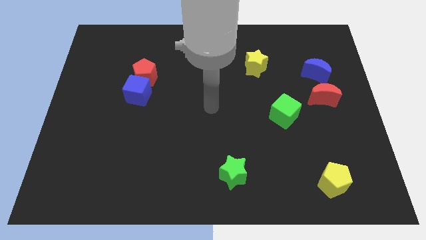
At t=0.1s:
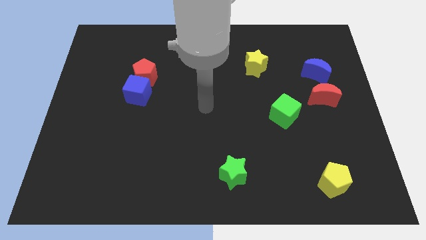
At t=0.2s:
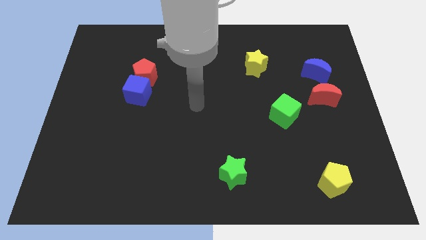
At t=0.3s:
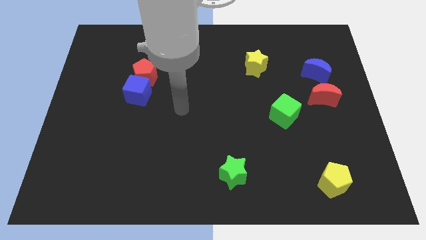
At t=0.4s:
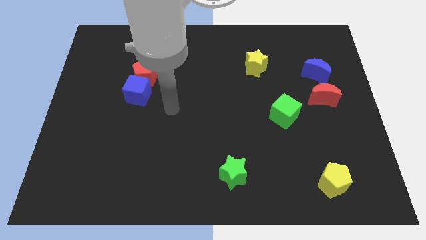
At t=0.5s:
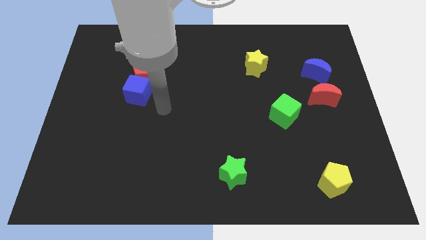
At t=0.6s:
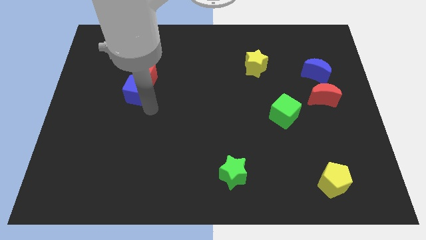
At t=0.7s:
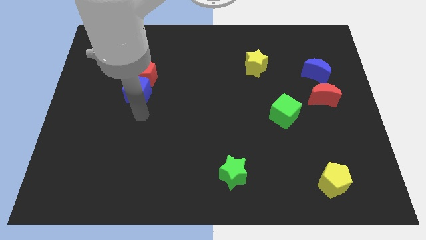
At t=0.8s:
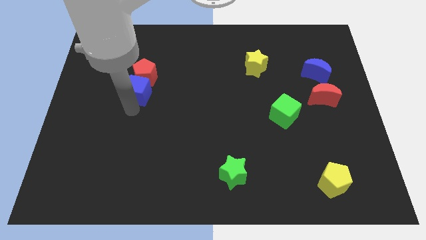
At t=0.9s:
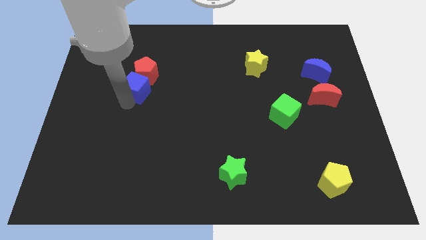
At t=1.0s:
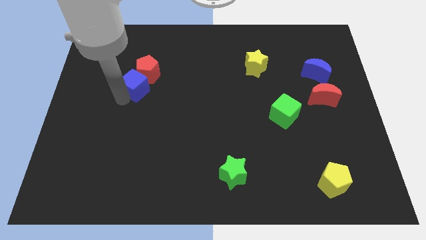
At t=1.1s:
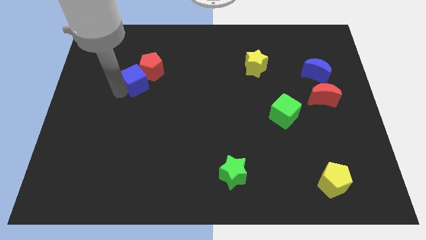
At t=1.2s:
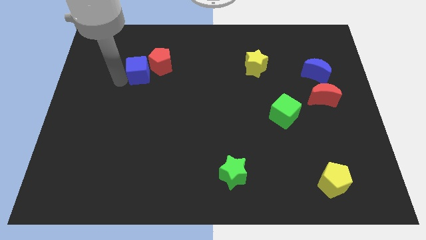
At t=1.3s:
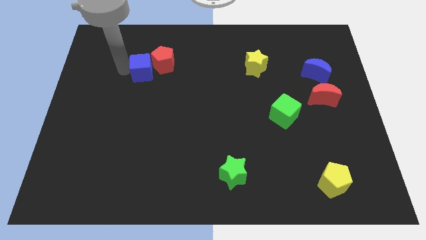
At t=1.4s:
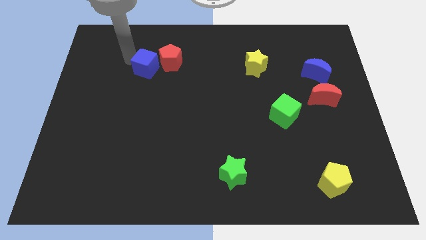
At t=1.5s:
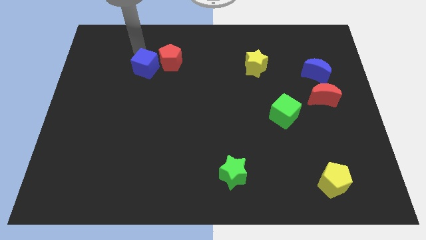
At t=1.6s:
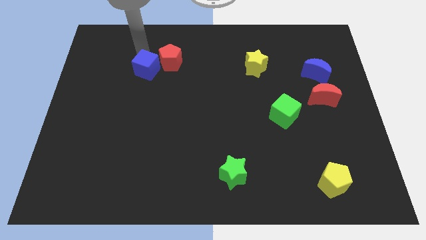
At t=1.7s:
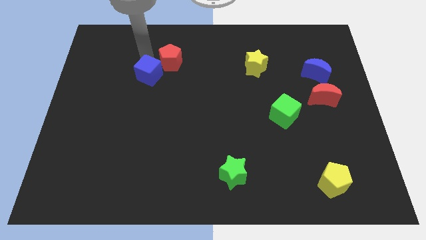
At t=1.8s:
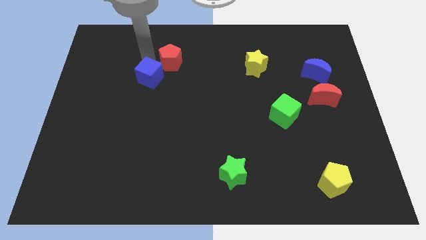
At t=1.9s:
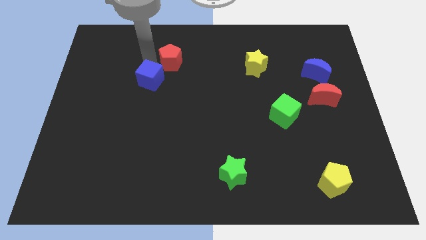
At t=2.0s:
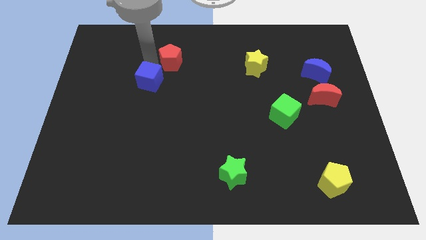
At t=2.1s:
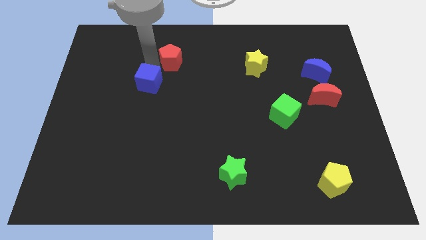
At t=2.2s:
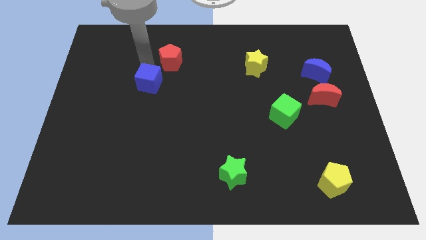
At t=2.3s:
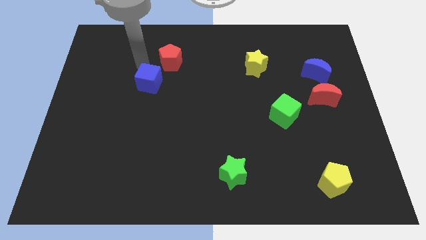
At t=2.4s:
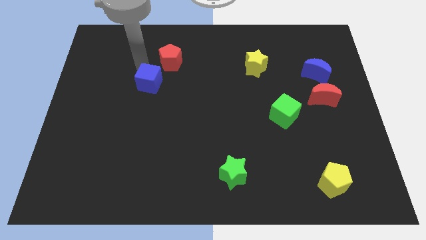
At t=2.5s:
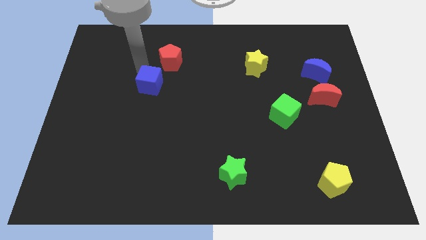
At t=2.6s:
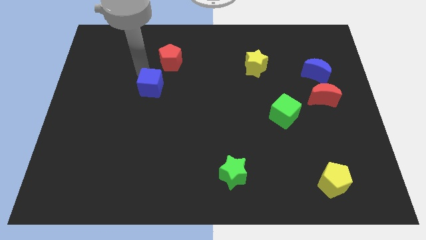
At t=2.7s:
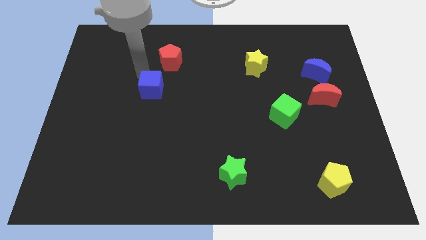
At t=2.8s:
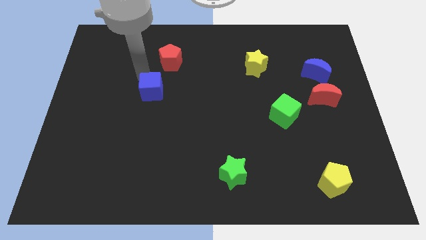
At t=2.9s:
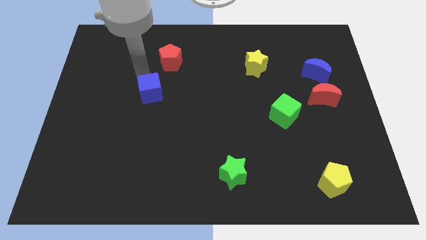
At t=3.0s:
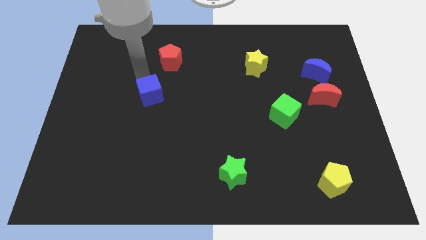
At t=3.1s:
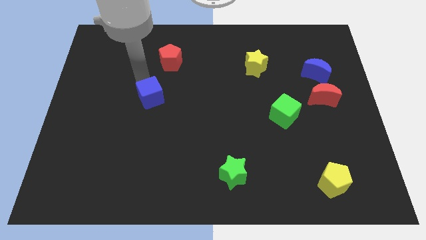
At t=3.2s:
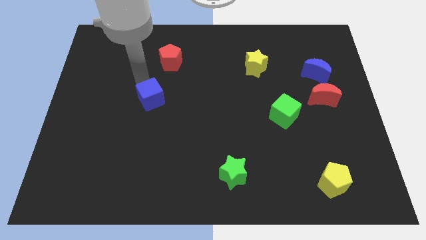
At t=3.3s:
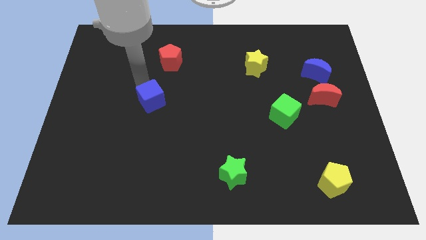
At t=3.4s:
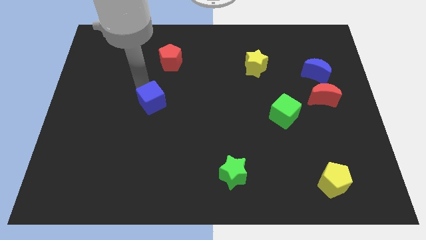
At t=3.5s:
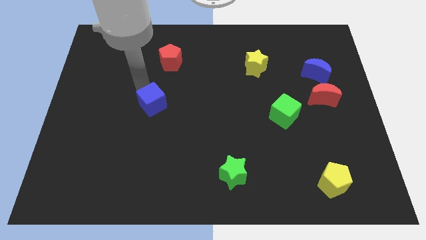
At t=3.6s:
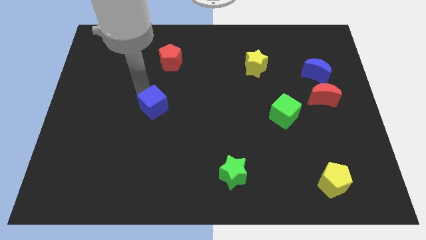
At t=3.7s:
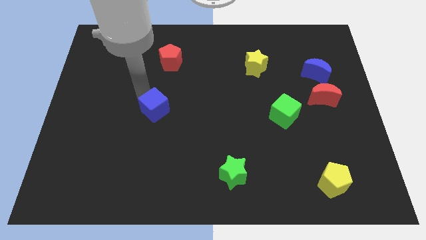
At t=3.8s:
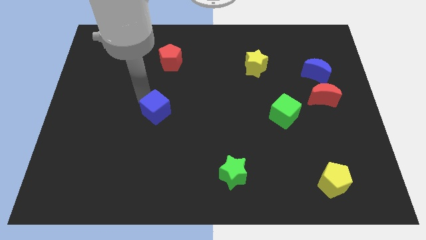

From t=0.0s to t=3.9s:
slide the blue cube diagonally downwards and to the right a little bit

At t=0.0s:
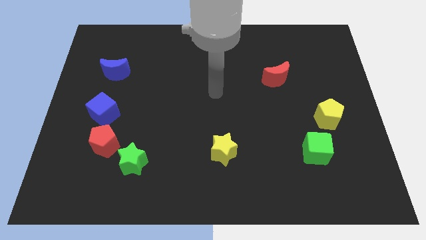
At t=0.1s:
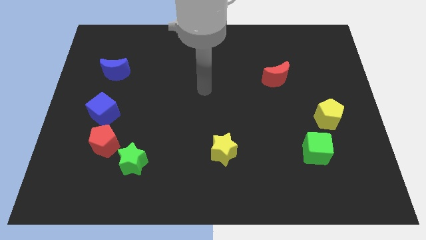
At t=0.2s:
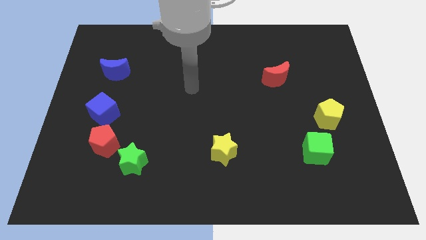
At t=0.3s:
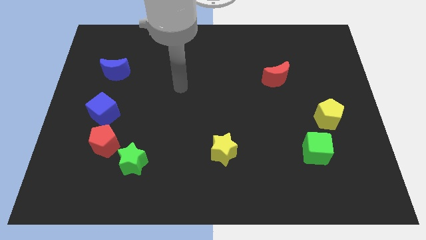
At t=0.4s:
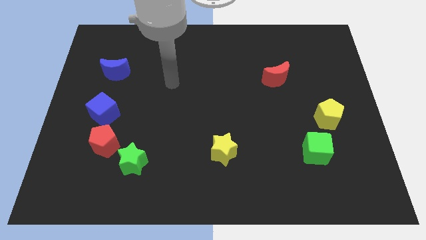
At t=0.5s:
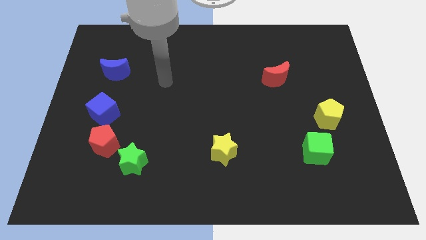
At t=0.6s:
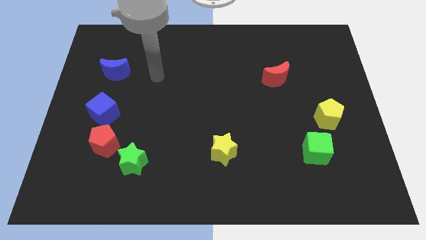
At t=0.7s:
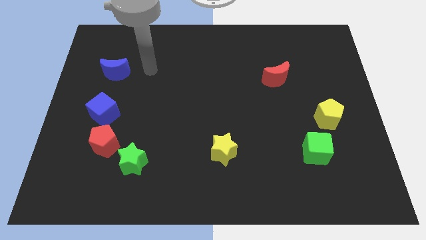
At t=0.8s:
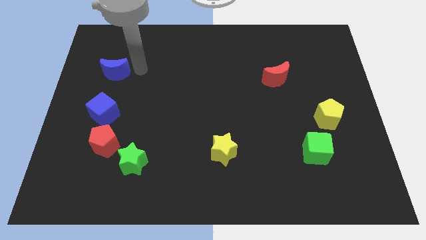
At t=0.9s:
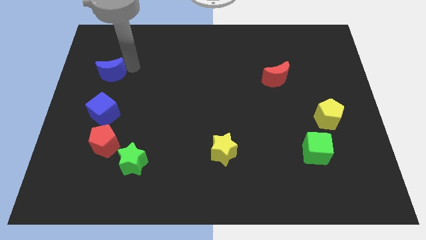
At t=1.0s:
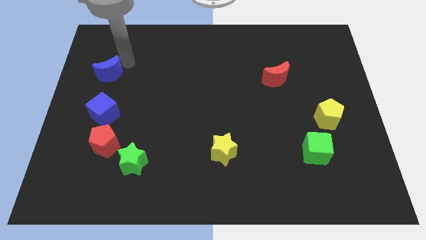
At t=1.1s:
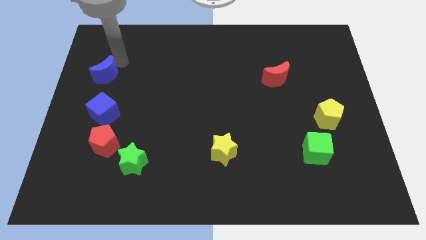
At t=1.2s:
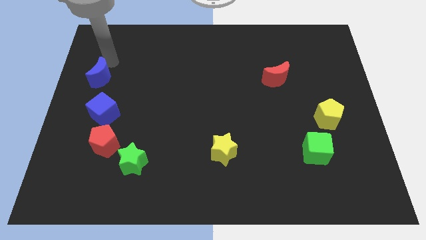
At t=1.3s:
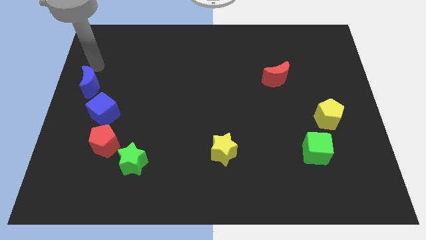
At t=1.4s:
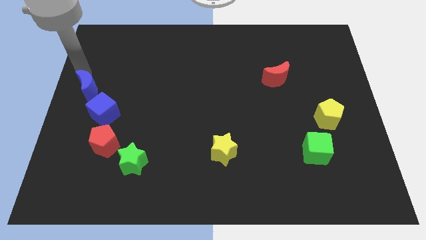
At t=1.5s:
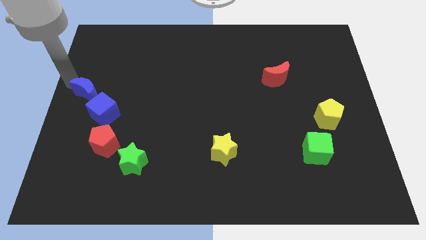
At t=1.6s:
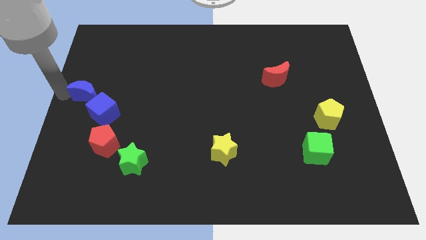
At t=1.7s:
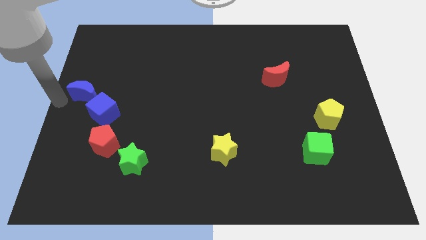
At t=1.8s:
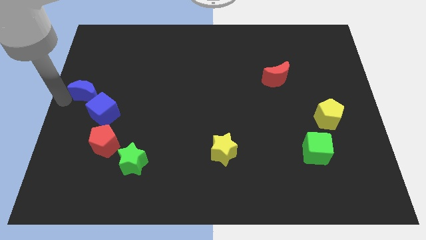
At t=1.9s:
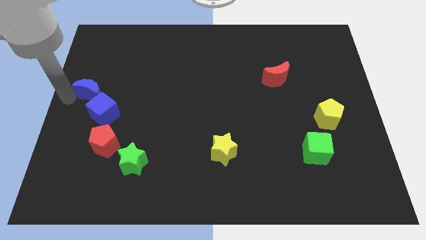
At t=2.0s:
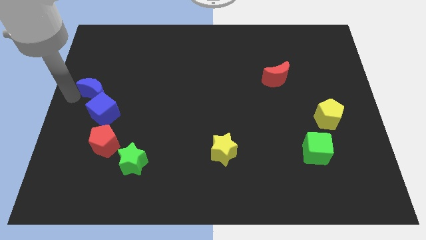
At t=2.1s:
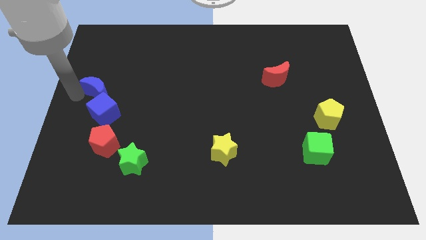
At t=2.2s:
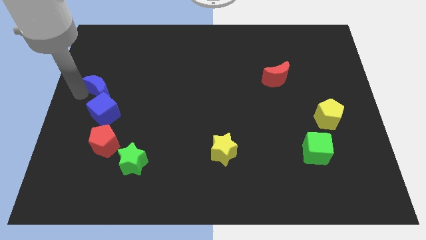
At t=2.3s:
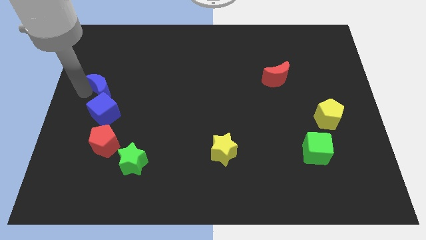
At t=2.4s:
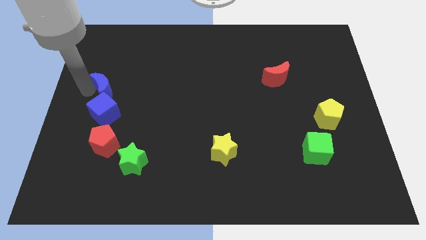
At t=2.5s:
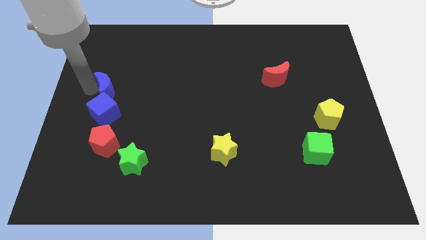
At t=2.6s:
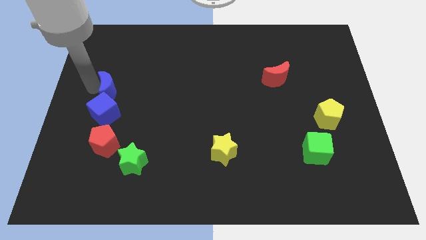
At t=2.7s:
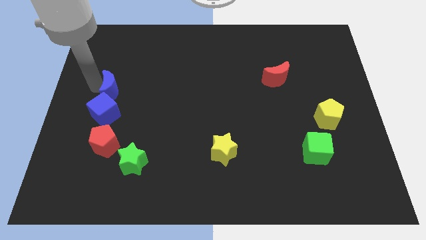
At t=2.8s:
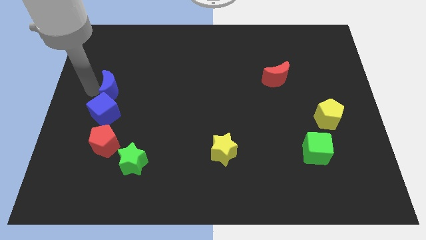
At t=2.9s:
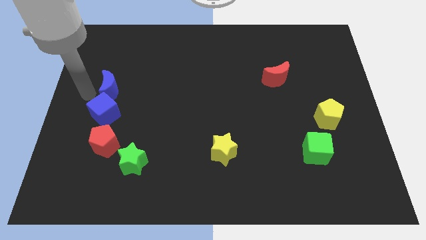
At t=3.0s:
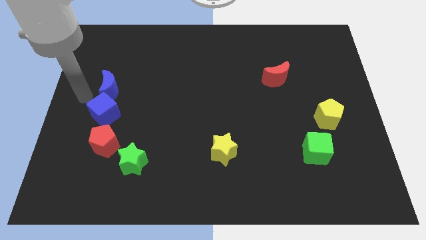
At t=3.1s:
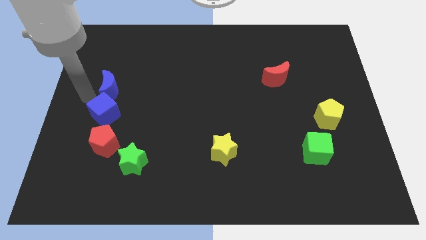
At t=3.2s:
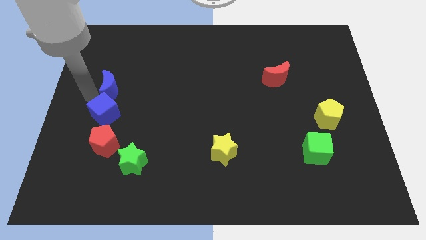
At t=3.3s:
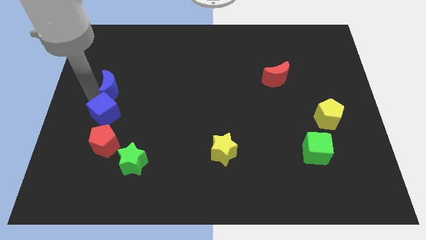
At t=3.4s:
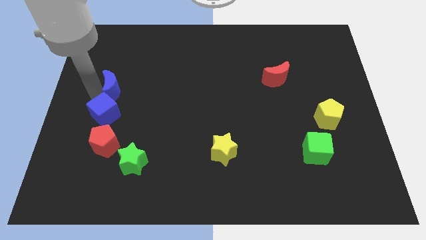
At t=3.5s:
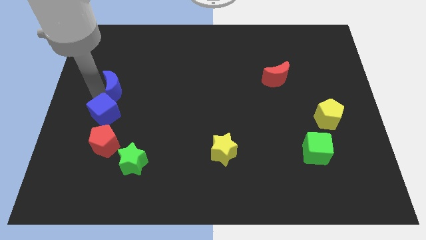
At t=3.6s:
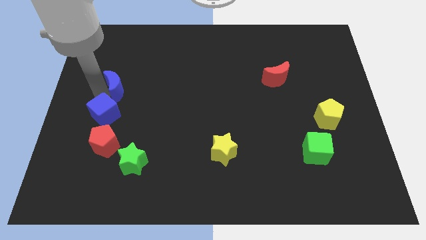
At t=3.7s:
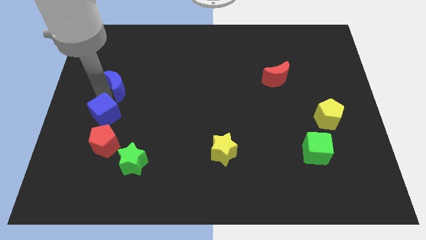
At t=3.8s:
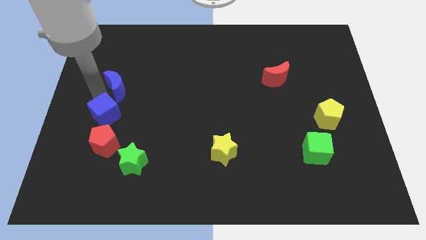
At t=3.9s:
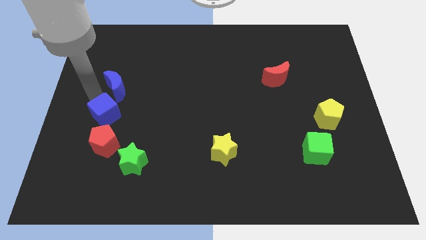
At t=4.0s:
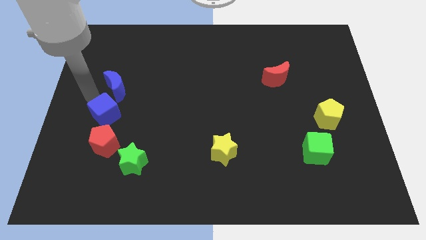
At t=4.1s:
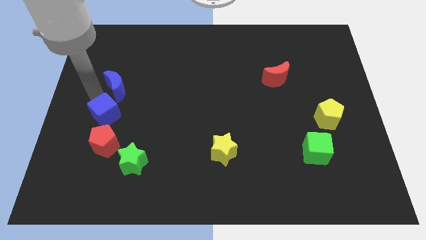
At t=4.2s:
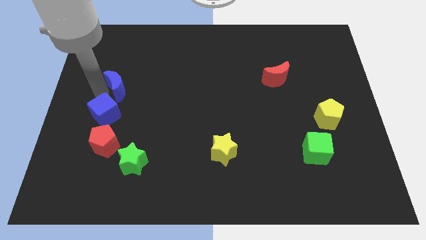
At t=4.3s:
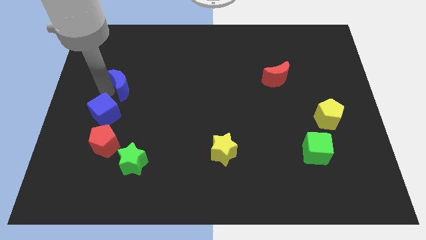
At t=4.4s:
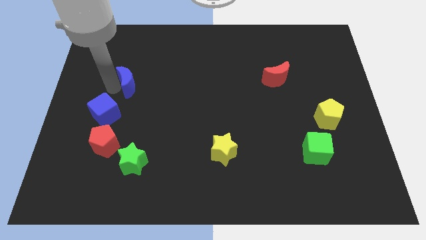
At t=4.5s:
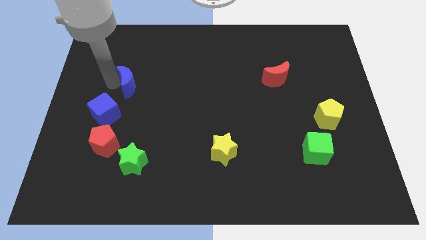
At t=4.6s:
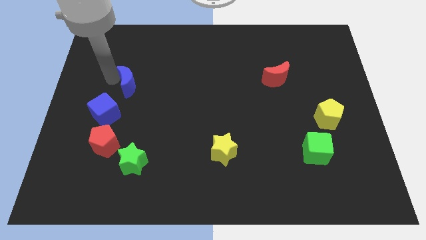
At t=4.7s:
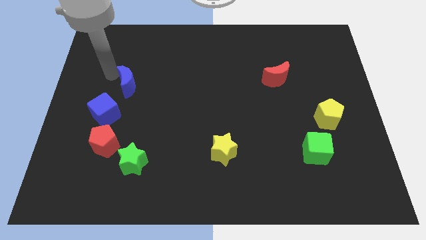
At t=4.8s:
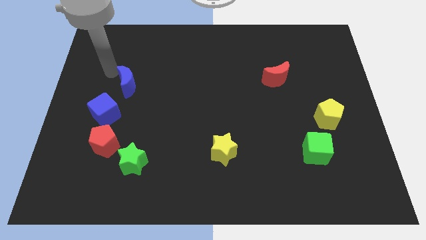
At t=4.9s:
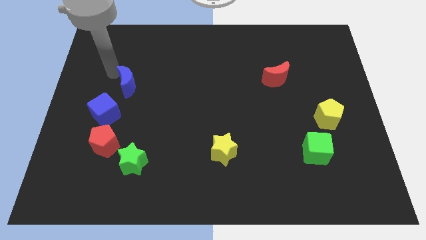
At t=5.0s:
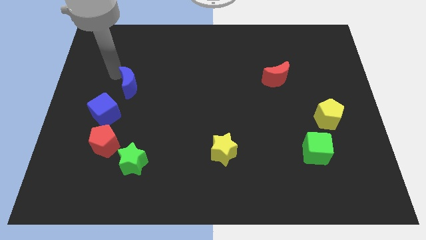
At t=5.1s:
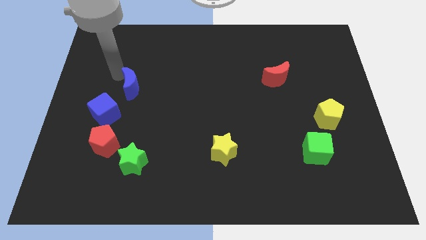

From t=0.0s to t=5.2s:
slightly move the blue moon diagonally downwards and right
